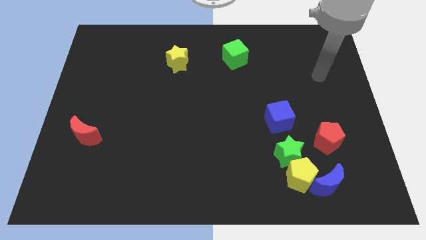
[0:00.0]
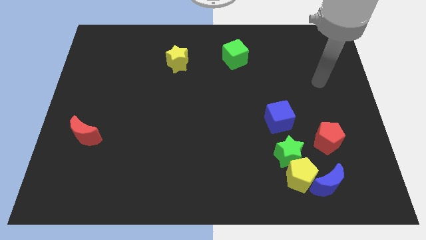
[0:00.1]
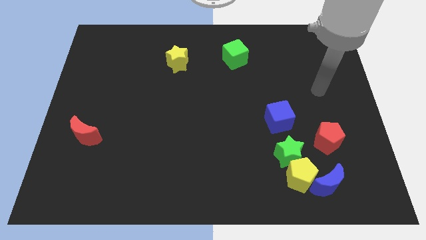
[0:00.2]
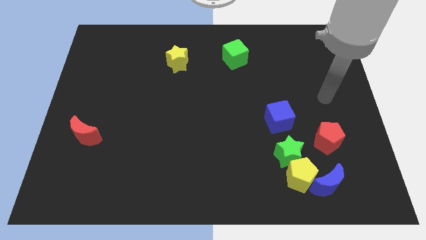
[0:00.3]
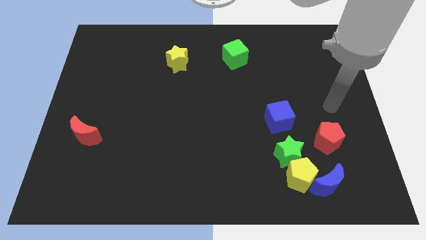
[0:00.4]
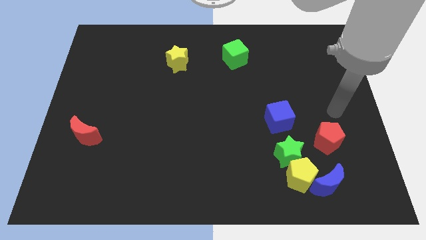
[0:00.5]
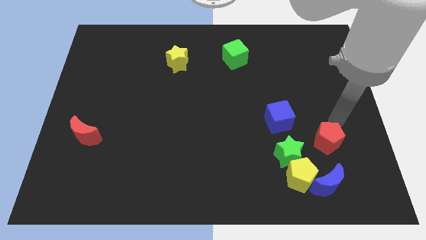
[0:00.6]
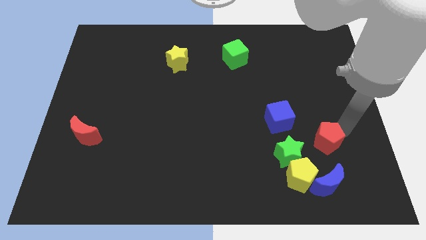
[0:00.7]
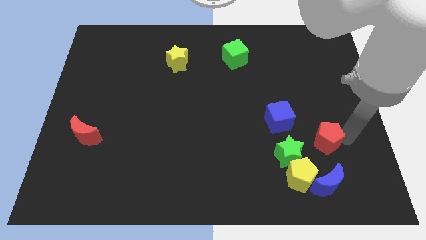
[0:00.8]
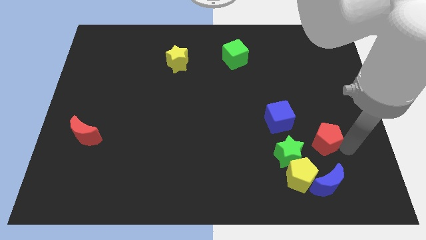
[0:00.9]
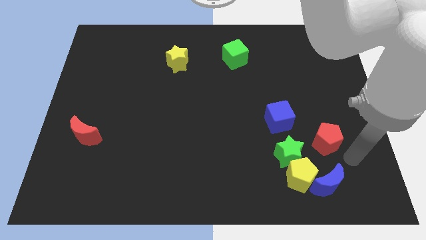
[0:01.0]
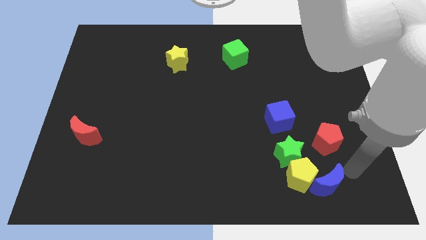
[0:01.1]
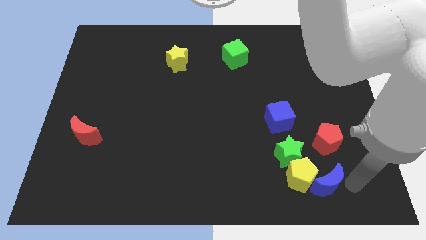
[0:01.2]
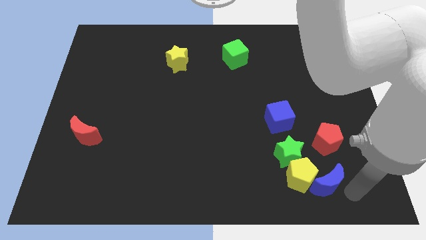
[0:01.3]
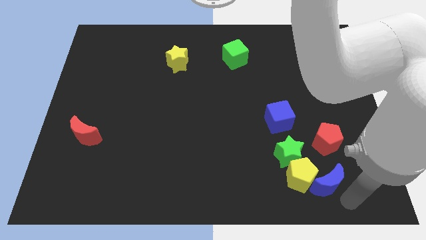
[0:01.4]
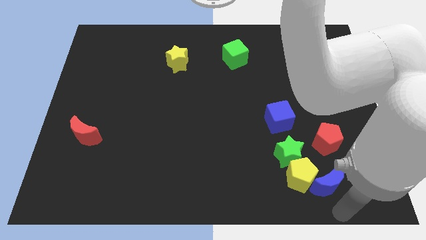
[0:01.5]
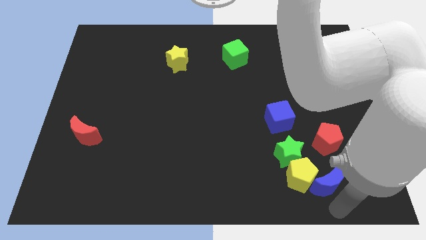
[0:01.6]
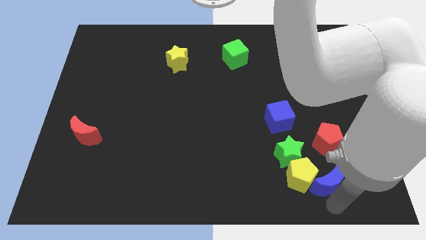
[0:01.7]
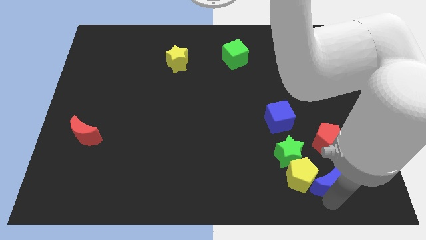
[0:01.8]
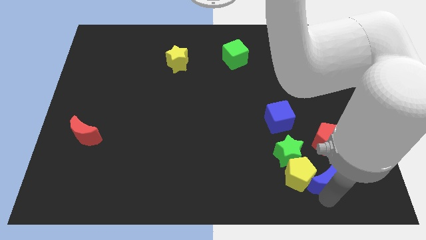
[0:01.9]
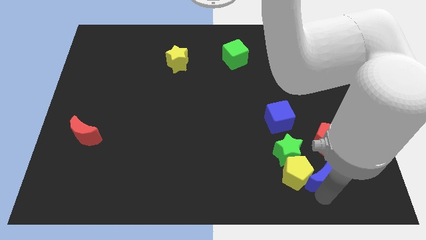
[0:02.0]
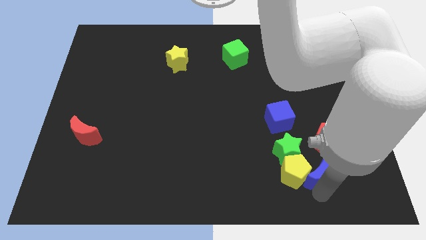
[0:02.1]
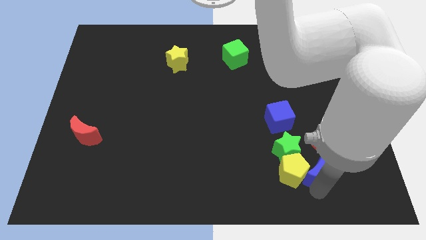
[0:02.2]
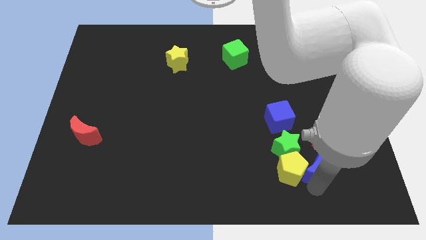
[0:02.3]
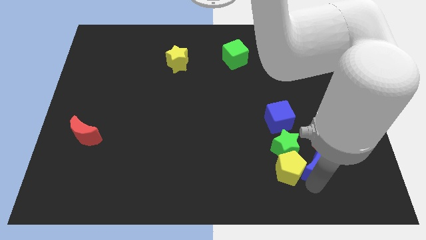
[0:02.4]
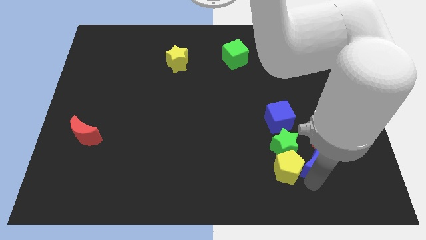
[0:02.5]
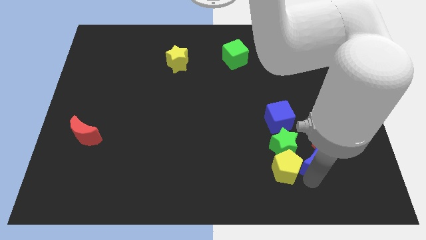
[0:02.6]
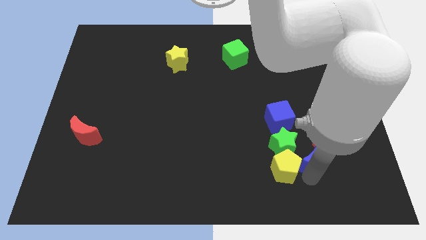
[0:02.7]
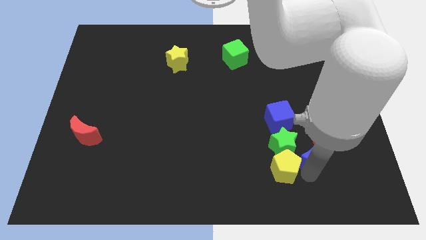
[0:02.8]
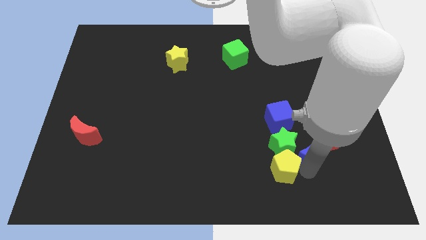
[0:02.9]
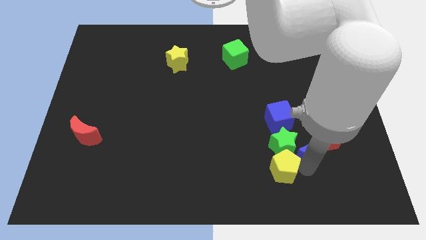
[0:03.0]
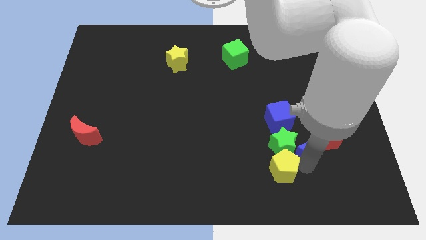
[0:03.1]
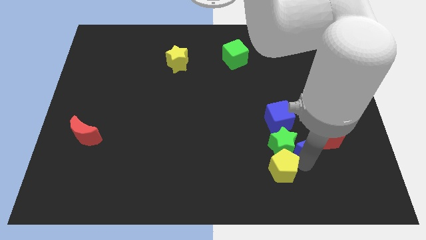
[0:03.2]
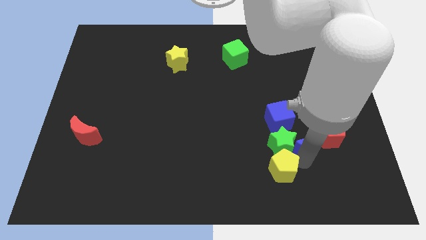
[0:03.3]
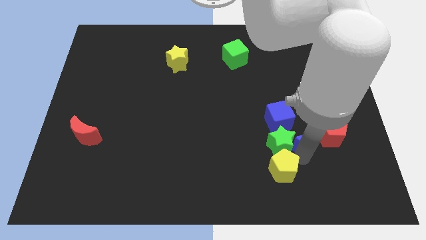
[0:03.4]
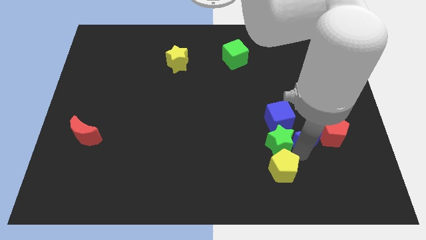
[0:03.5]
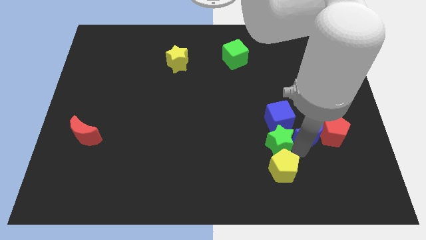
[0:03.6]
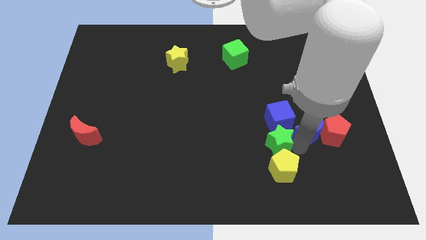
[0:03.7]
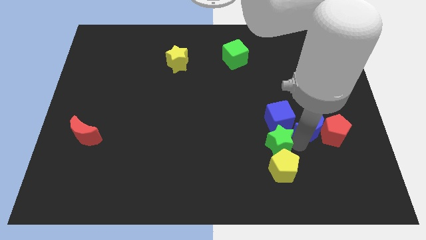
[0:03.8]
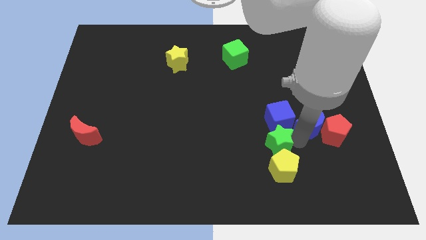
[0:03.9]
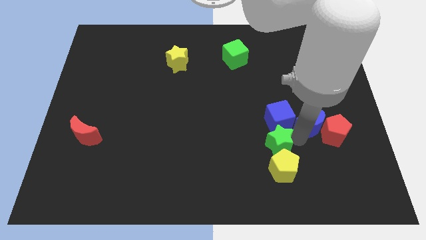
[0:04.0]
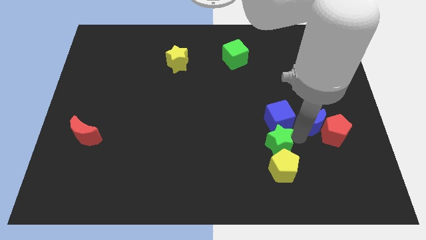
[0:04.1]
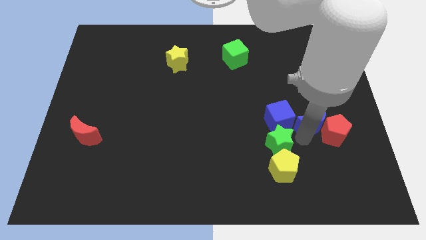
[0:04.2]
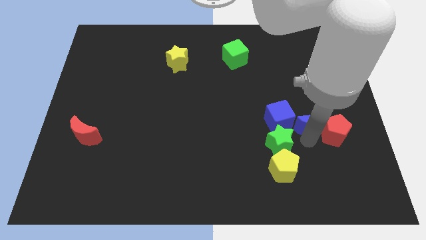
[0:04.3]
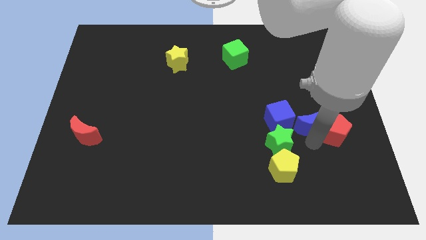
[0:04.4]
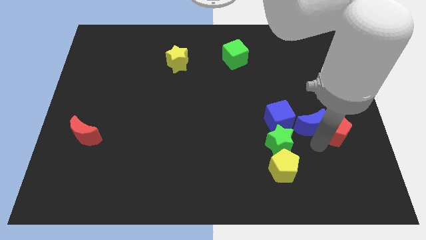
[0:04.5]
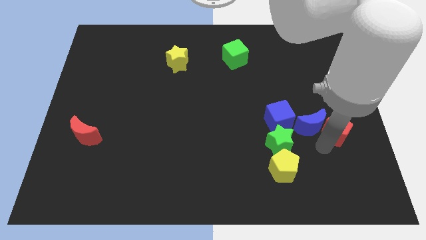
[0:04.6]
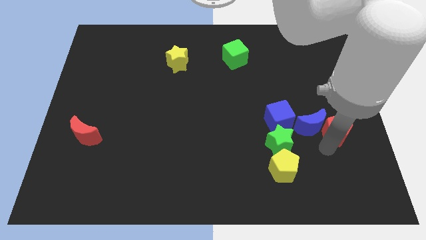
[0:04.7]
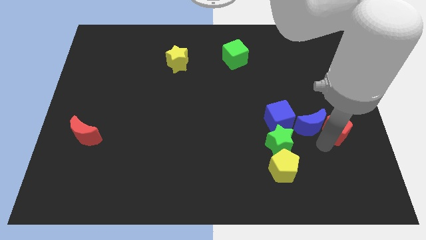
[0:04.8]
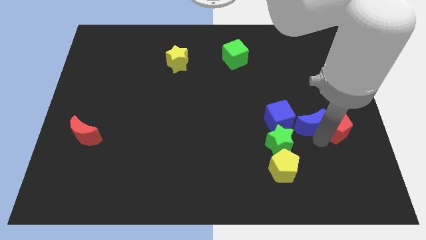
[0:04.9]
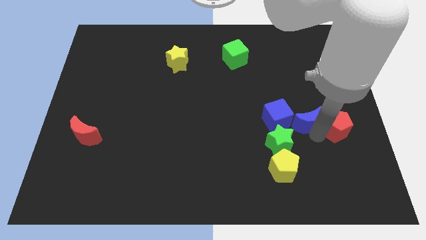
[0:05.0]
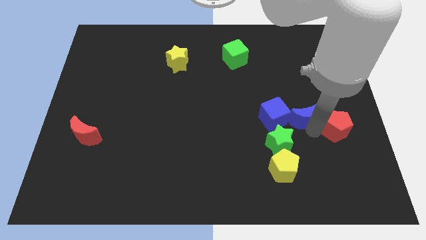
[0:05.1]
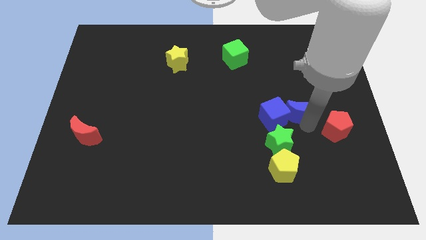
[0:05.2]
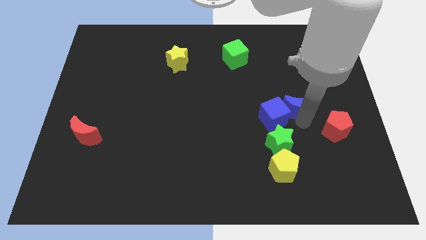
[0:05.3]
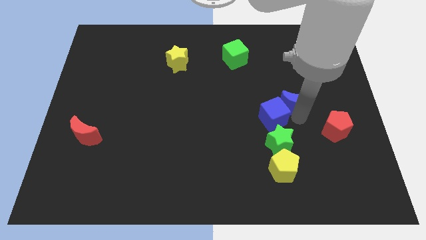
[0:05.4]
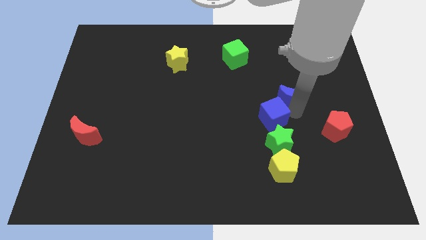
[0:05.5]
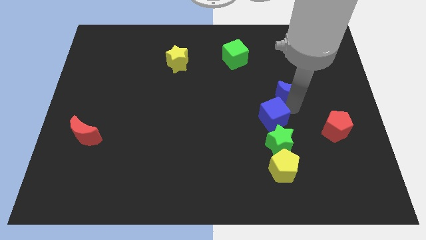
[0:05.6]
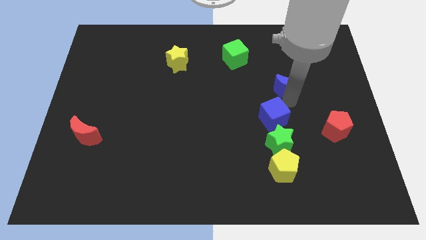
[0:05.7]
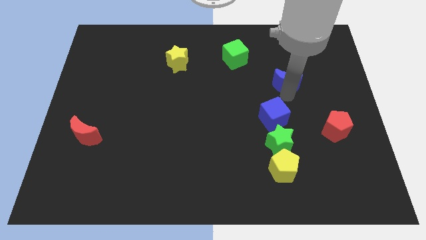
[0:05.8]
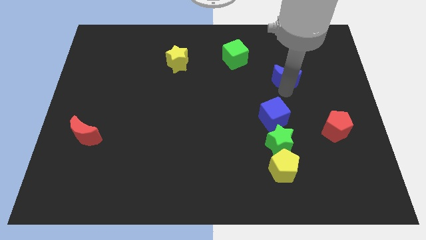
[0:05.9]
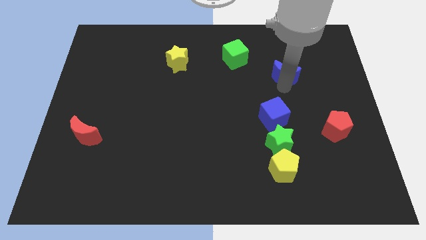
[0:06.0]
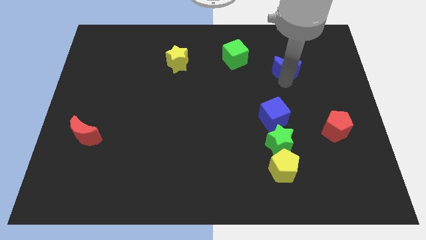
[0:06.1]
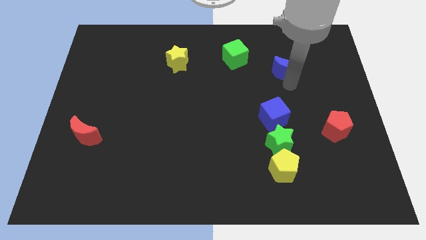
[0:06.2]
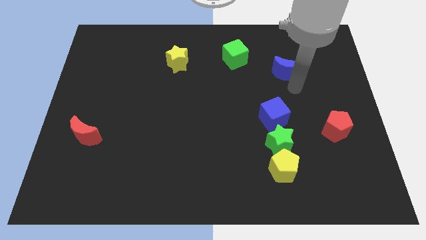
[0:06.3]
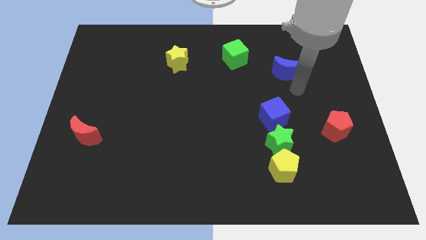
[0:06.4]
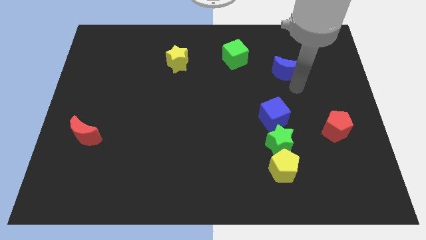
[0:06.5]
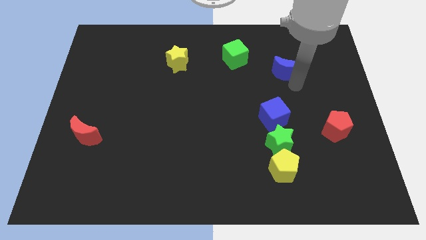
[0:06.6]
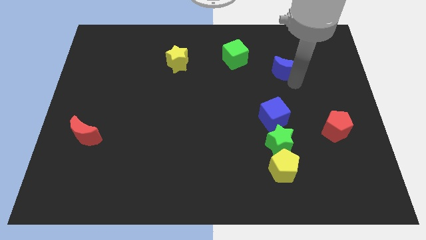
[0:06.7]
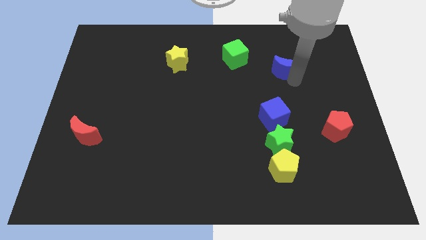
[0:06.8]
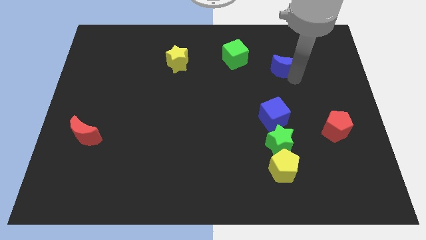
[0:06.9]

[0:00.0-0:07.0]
slide the blue moon just right of the green cube
